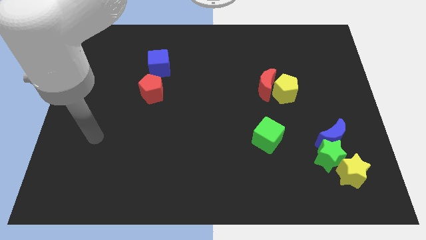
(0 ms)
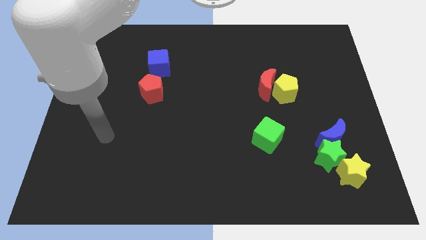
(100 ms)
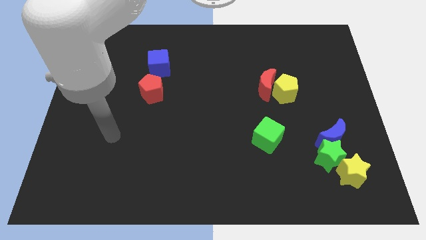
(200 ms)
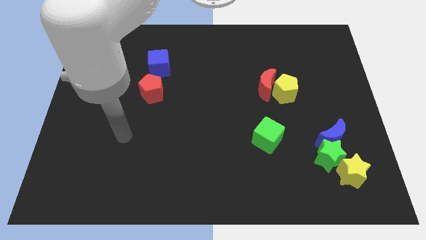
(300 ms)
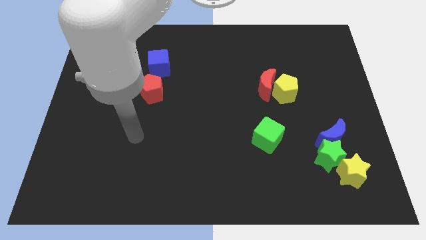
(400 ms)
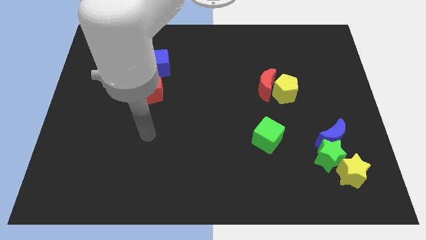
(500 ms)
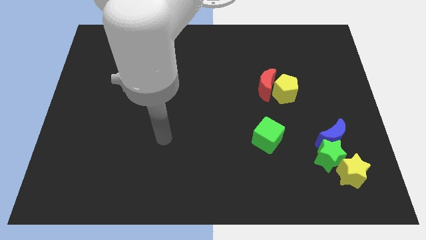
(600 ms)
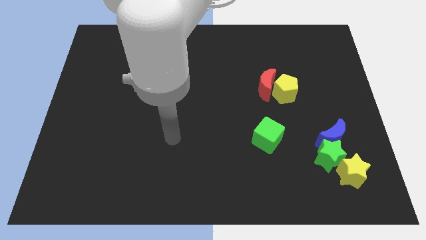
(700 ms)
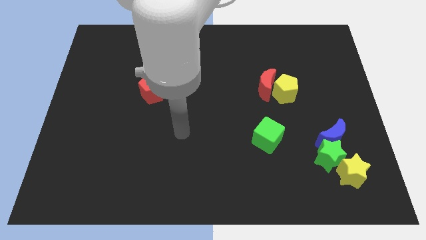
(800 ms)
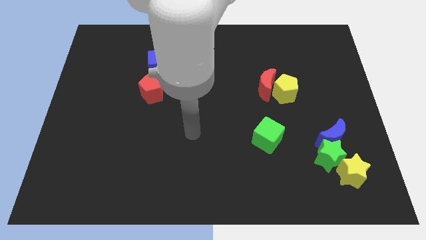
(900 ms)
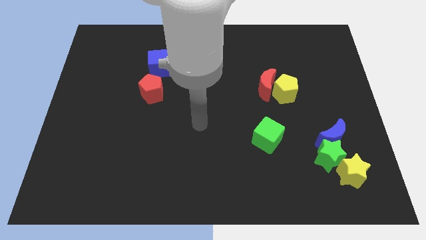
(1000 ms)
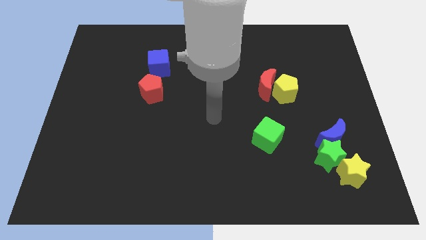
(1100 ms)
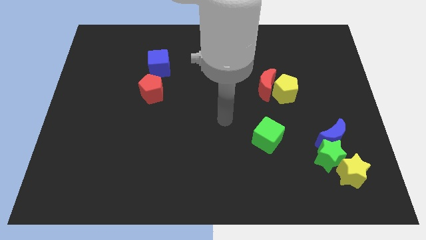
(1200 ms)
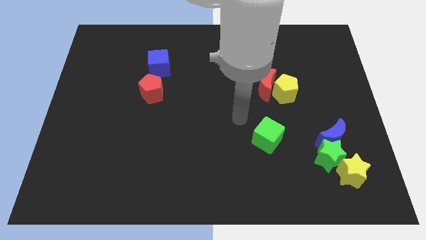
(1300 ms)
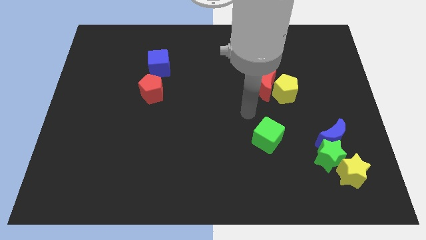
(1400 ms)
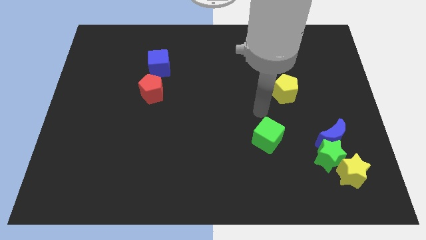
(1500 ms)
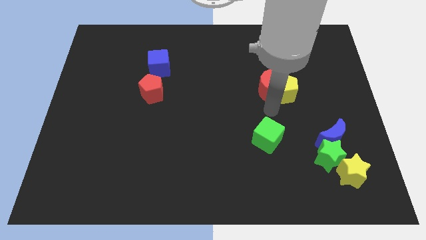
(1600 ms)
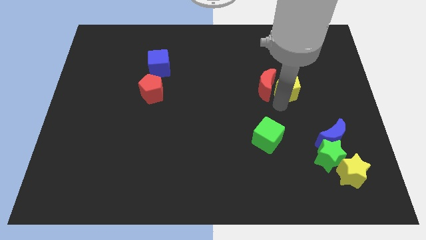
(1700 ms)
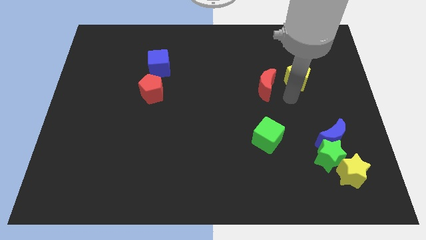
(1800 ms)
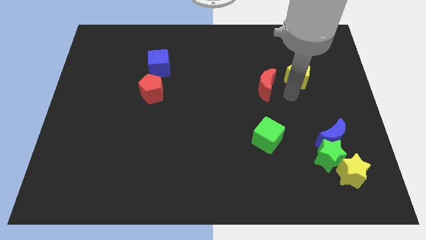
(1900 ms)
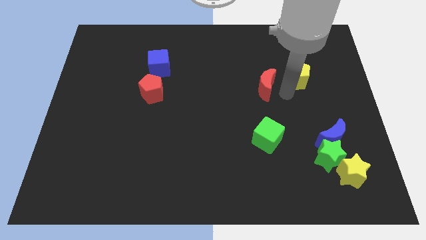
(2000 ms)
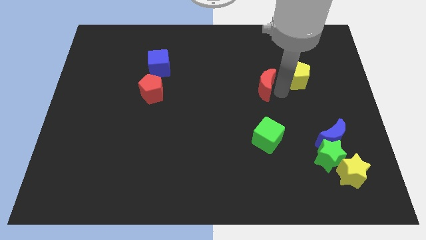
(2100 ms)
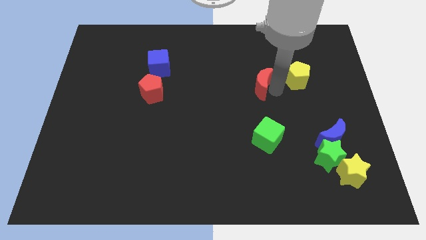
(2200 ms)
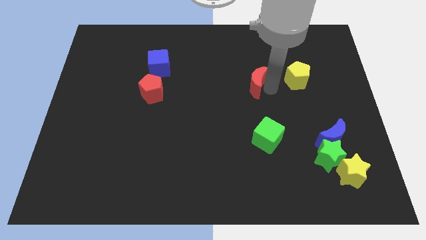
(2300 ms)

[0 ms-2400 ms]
separate the red moon from the yellow pentagon

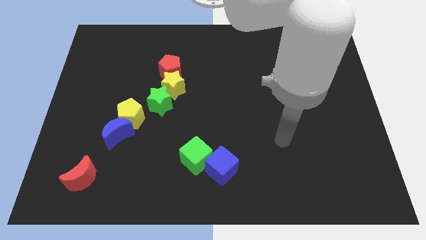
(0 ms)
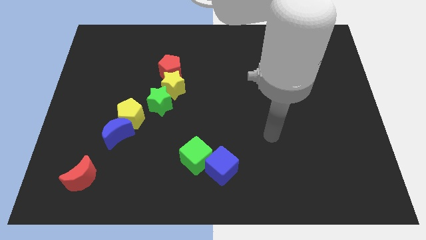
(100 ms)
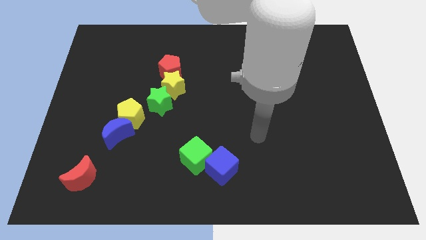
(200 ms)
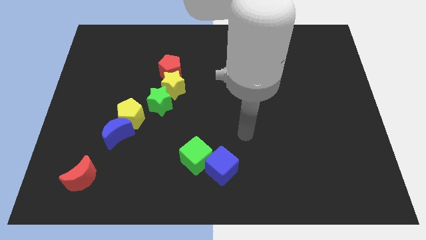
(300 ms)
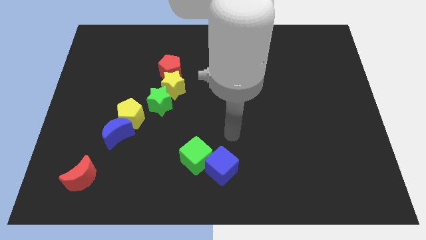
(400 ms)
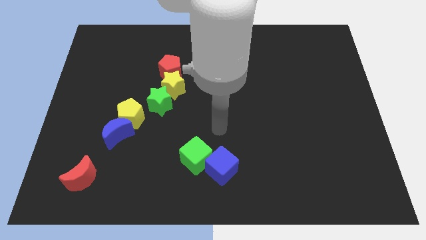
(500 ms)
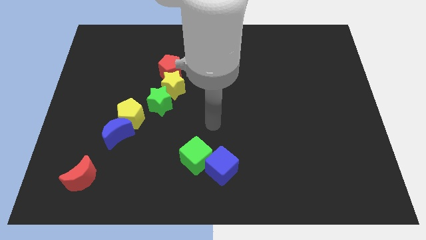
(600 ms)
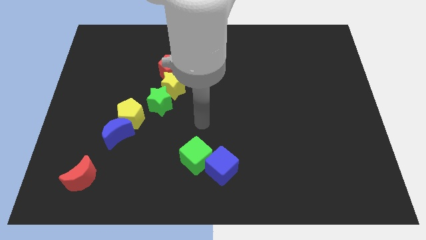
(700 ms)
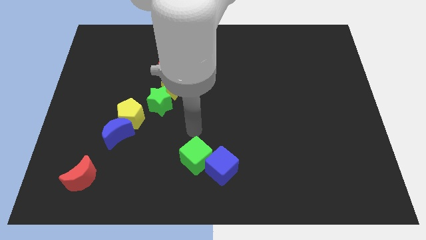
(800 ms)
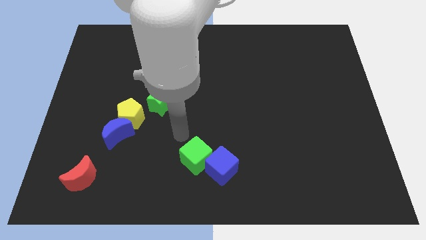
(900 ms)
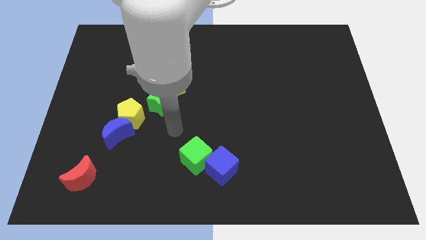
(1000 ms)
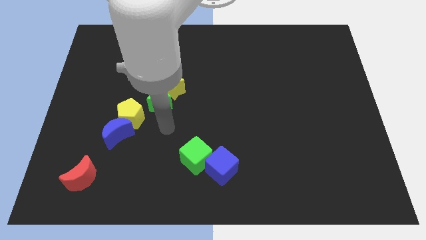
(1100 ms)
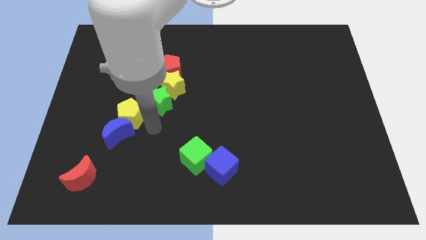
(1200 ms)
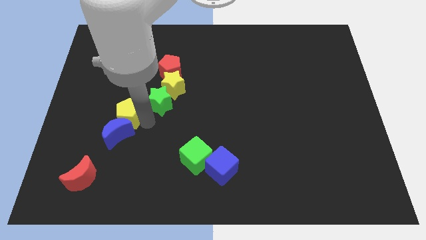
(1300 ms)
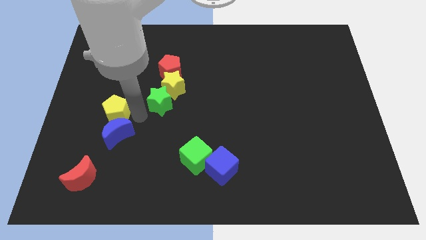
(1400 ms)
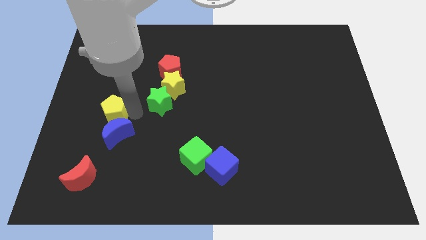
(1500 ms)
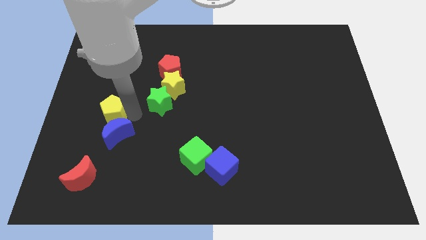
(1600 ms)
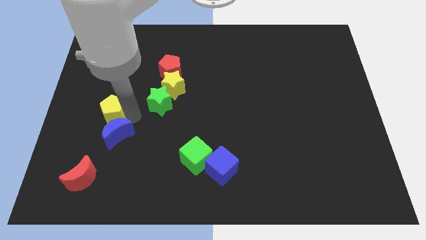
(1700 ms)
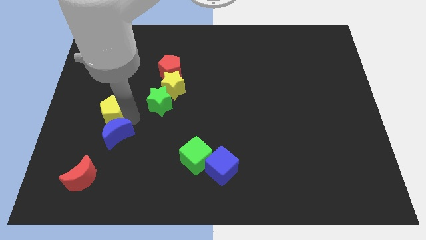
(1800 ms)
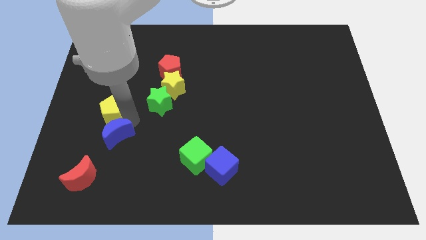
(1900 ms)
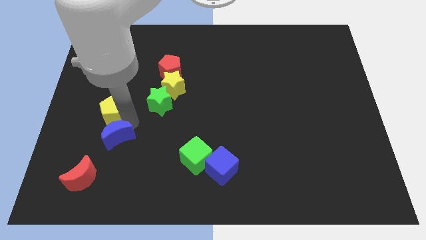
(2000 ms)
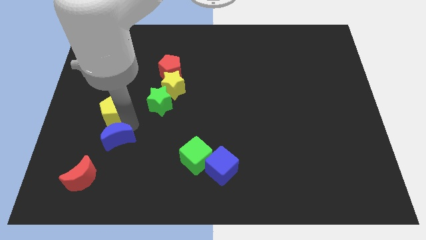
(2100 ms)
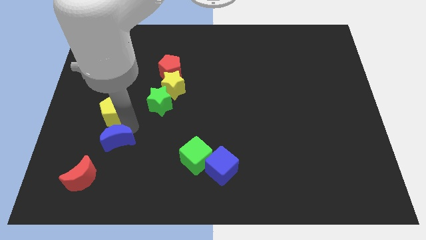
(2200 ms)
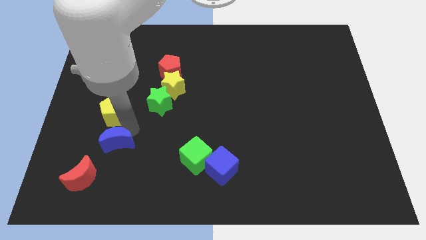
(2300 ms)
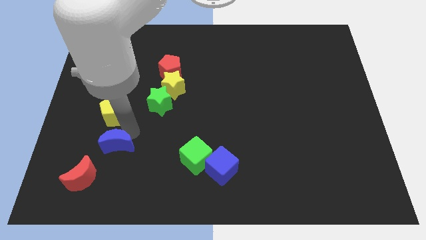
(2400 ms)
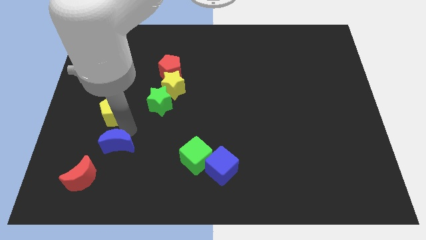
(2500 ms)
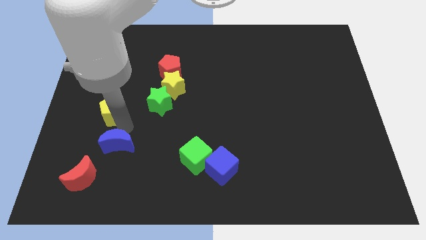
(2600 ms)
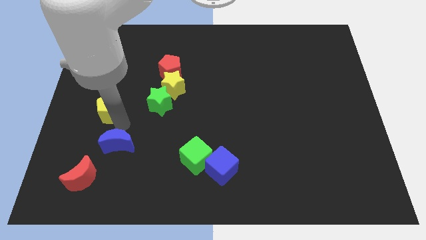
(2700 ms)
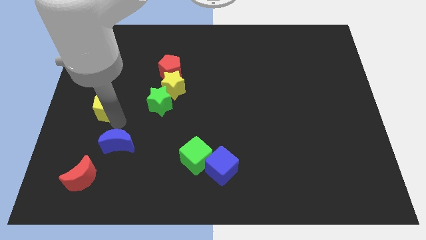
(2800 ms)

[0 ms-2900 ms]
separate the blue moon from the yellow pentagon

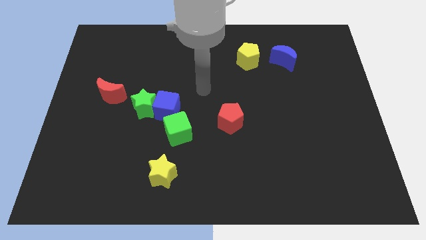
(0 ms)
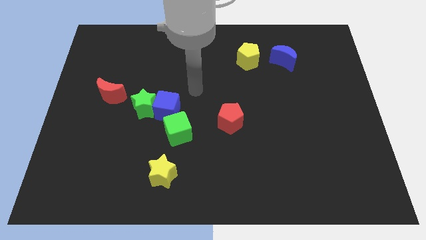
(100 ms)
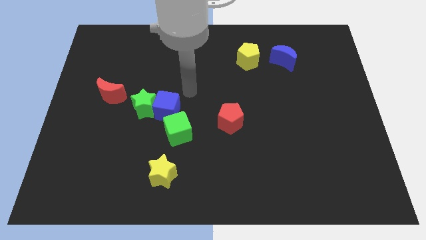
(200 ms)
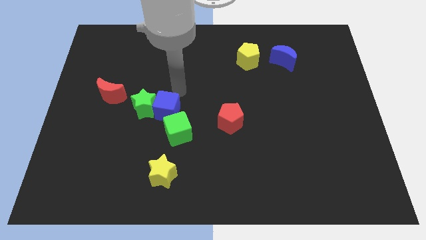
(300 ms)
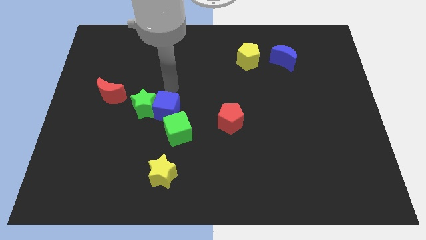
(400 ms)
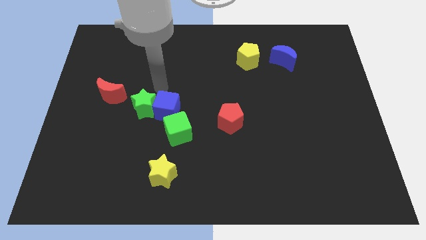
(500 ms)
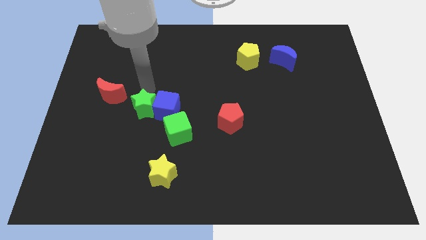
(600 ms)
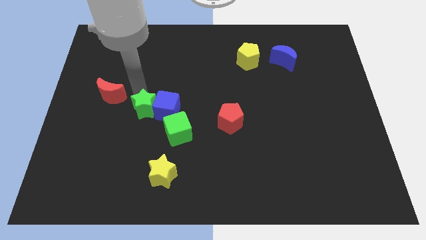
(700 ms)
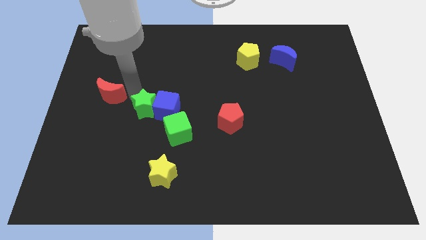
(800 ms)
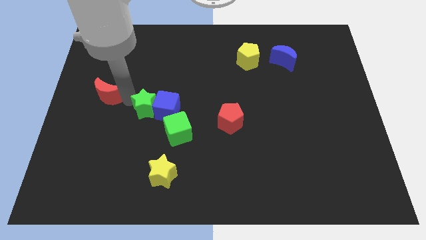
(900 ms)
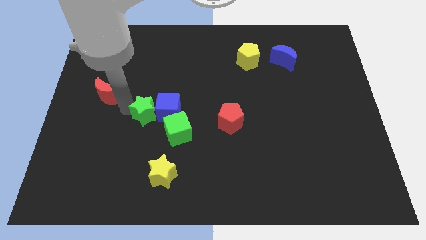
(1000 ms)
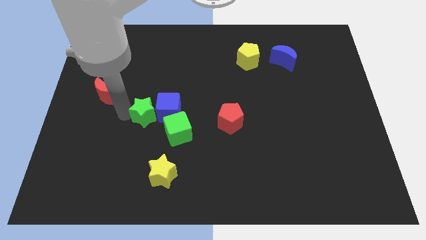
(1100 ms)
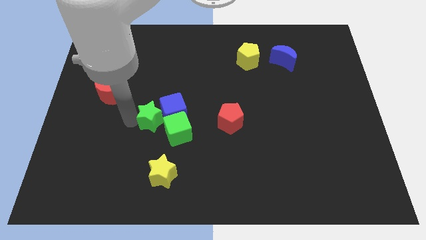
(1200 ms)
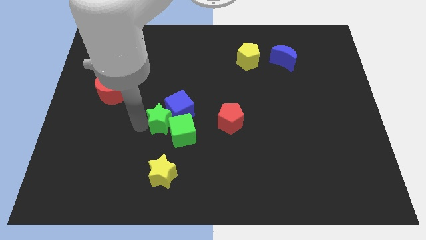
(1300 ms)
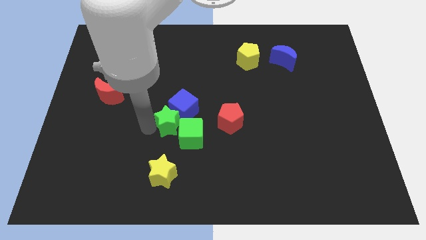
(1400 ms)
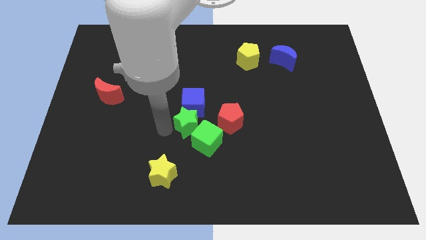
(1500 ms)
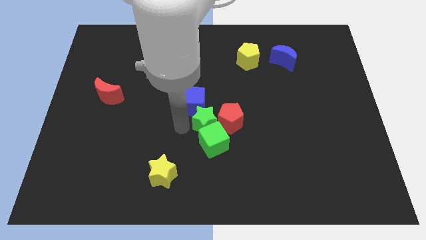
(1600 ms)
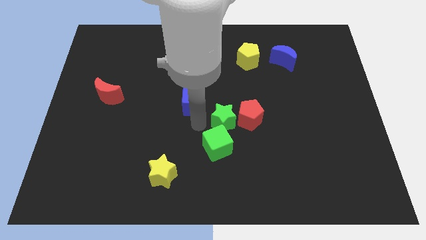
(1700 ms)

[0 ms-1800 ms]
pull the blue cube apart from the green star and green cube

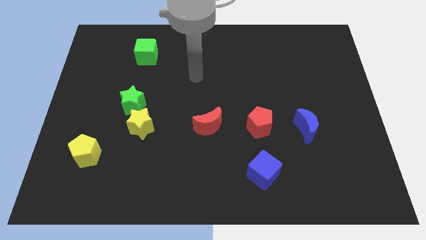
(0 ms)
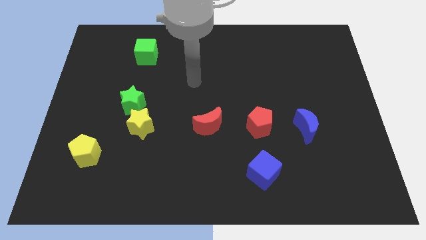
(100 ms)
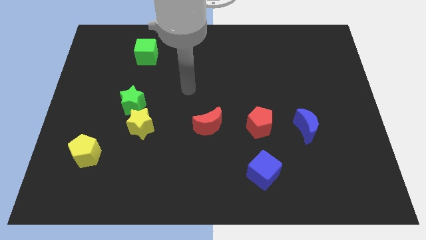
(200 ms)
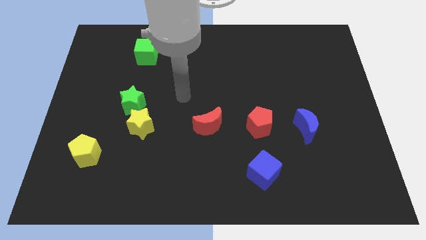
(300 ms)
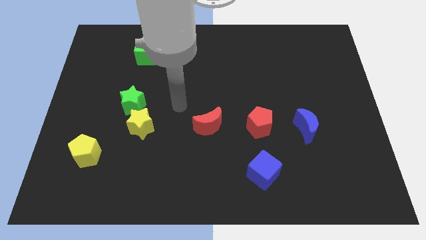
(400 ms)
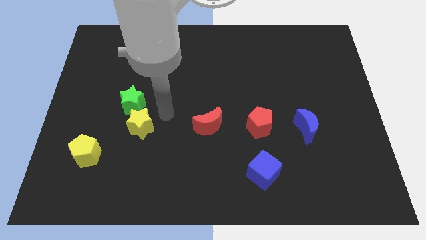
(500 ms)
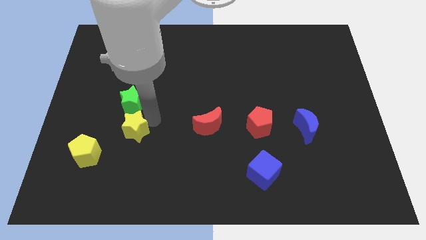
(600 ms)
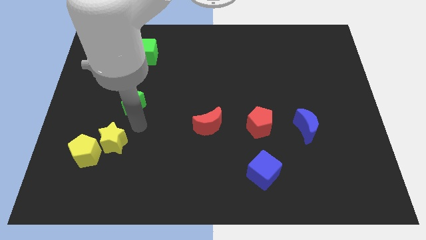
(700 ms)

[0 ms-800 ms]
pull the green star apart from the yellow star

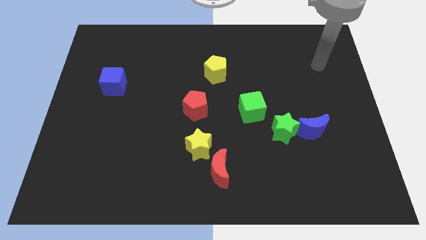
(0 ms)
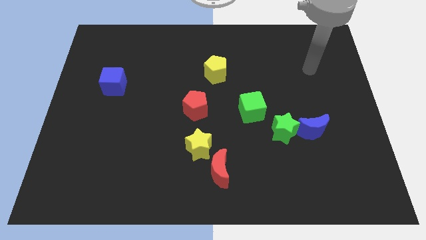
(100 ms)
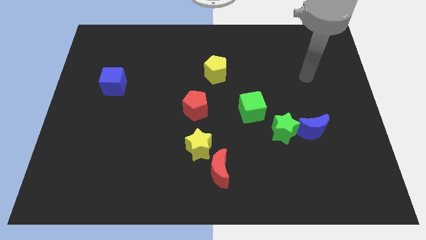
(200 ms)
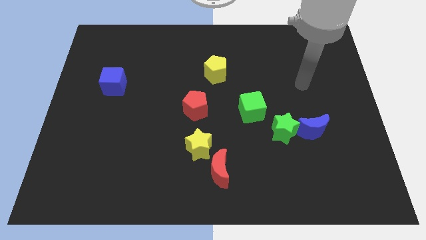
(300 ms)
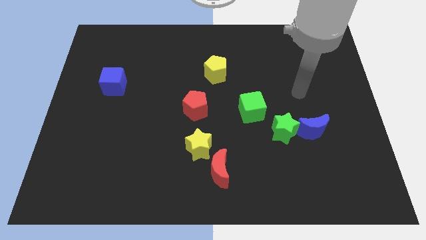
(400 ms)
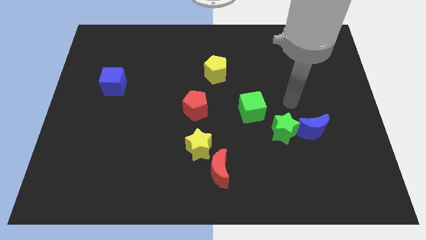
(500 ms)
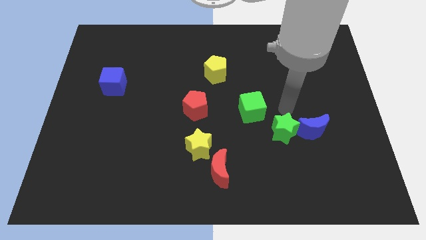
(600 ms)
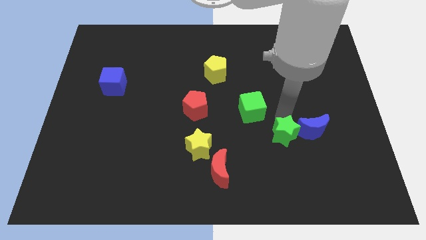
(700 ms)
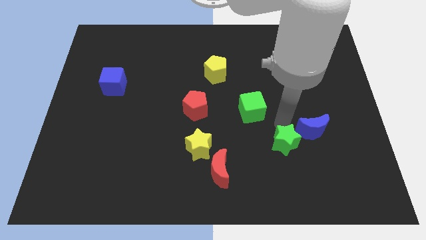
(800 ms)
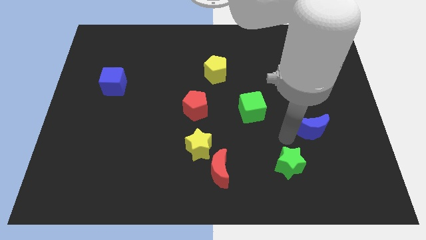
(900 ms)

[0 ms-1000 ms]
separate the blue moon from the green star

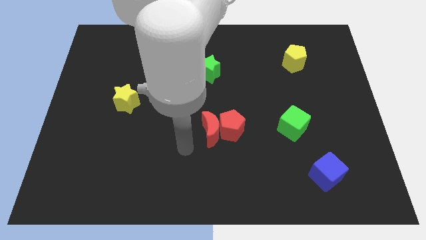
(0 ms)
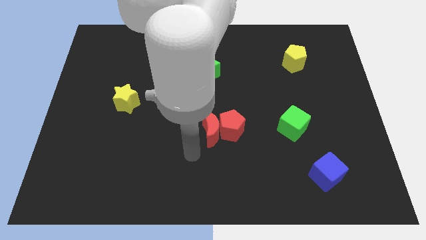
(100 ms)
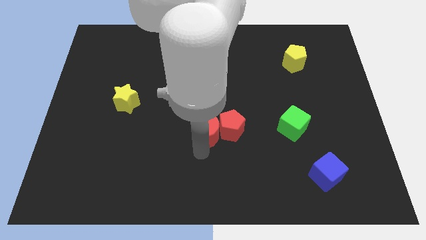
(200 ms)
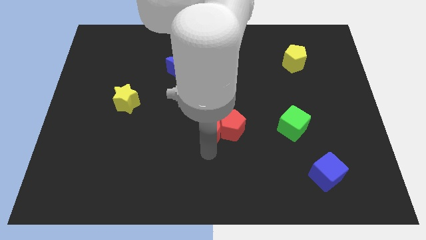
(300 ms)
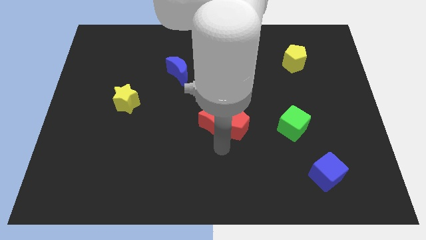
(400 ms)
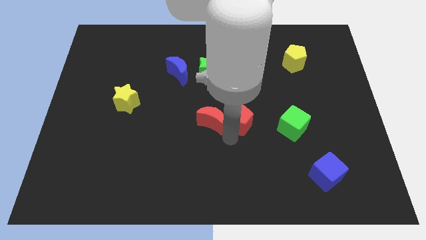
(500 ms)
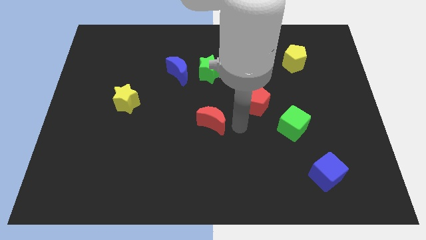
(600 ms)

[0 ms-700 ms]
move the red moon away from the red pentagon
